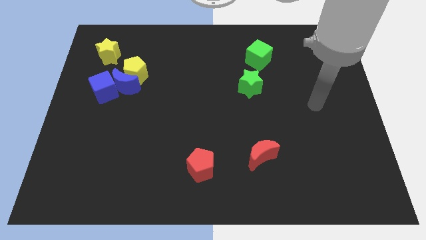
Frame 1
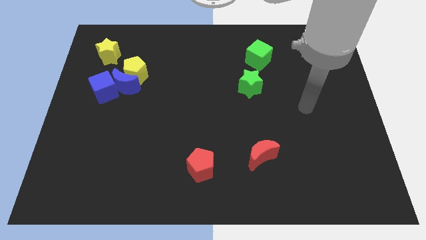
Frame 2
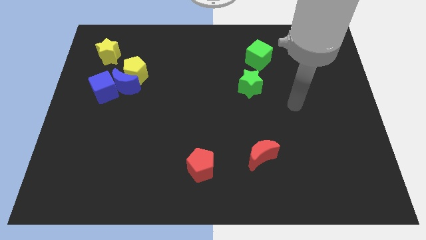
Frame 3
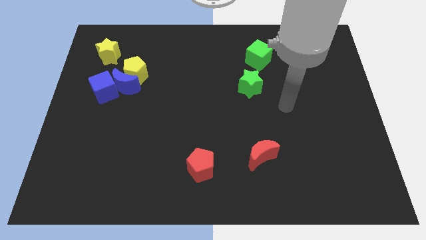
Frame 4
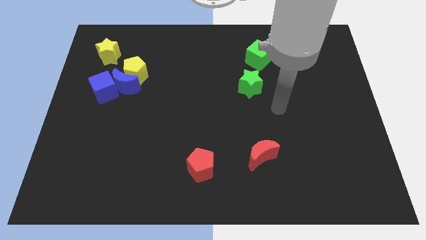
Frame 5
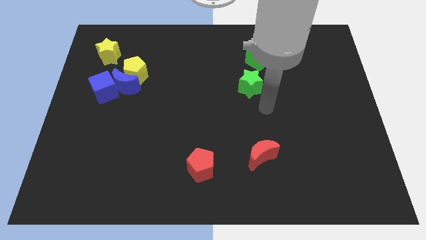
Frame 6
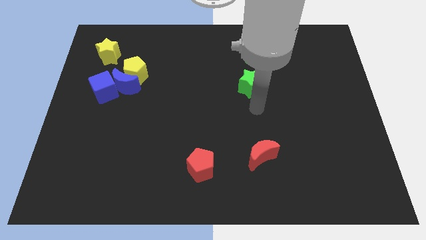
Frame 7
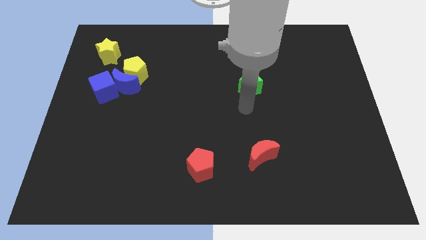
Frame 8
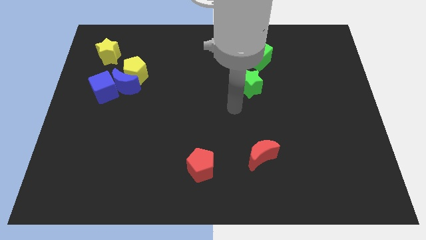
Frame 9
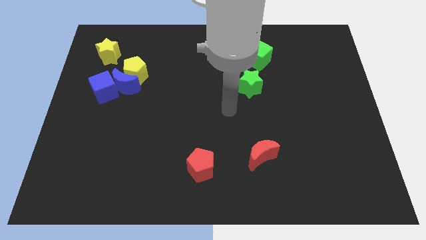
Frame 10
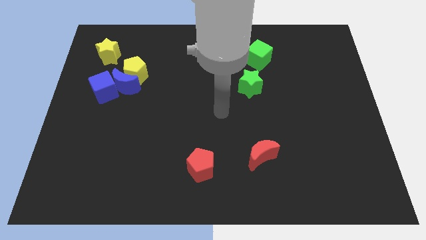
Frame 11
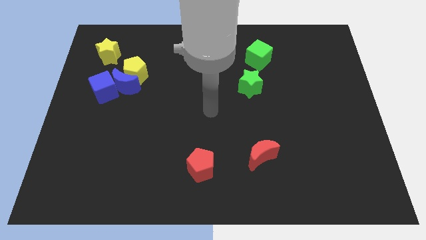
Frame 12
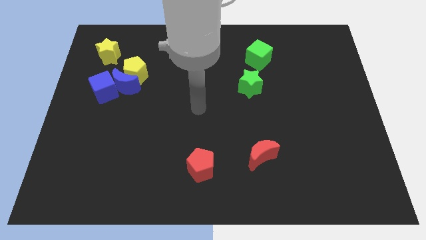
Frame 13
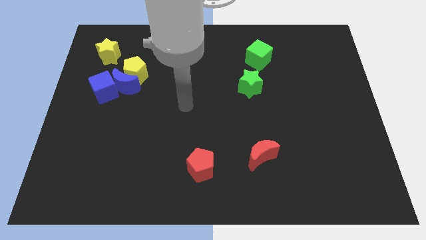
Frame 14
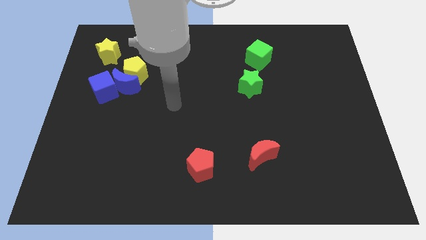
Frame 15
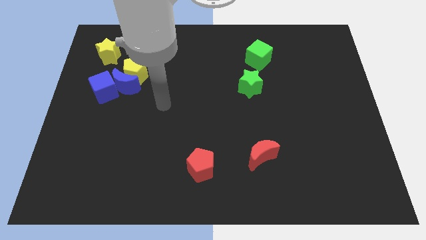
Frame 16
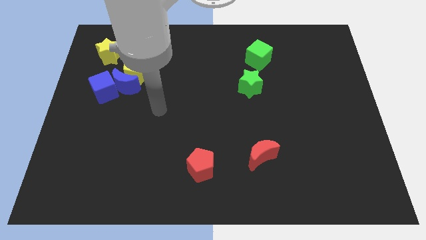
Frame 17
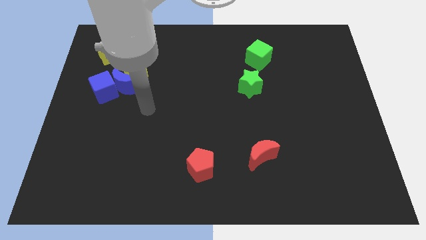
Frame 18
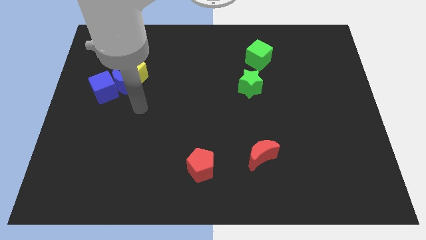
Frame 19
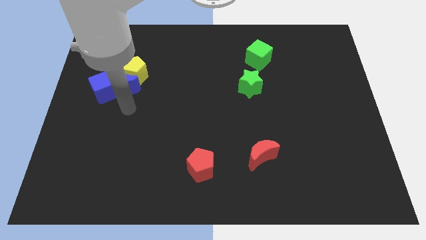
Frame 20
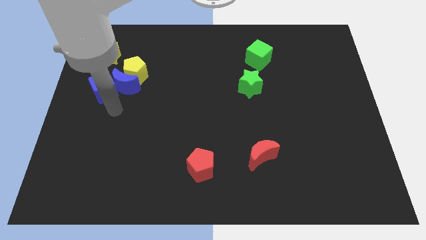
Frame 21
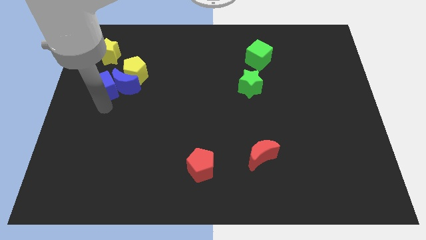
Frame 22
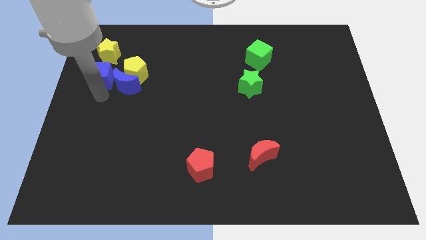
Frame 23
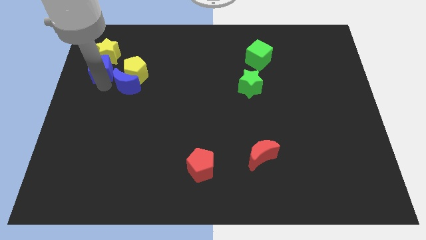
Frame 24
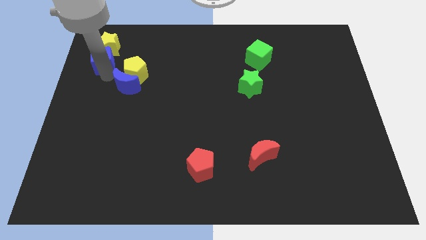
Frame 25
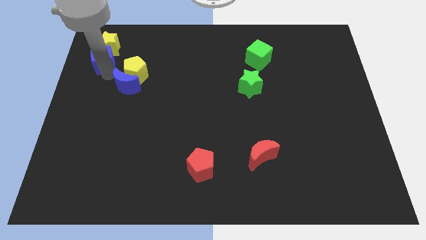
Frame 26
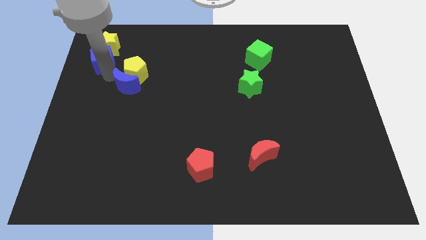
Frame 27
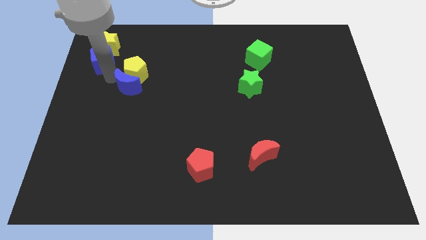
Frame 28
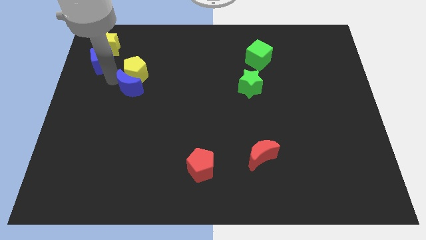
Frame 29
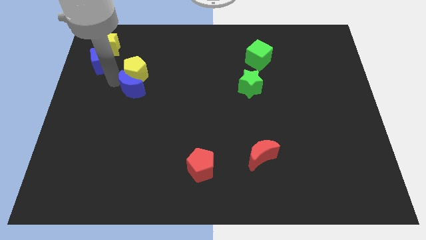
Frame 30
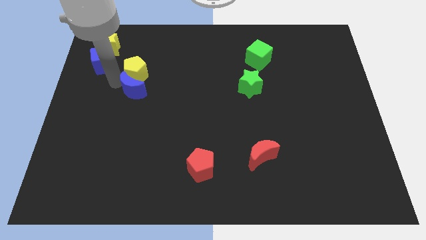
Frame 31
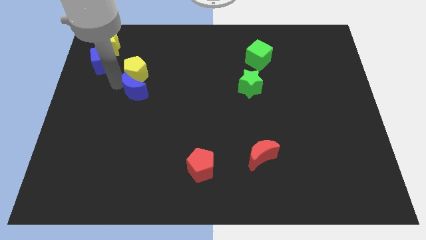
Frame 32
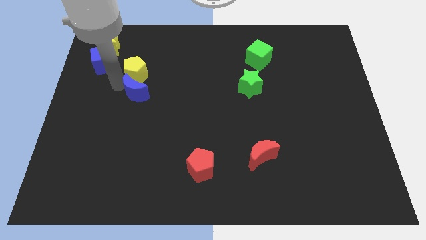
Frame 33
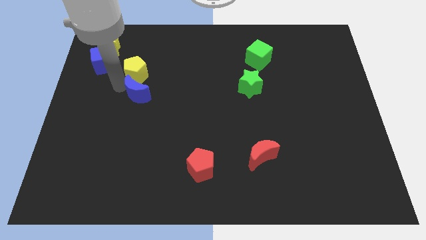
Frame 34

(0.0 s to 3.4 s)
separate the blue moon from the yellow pentagon and blue cube

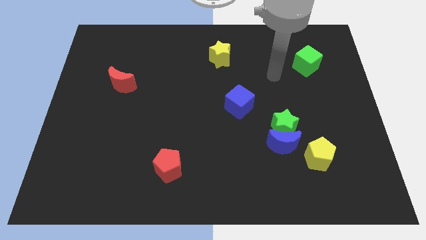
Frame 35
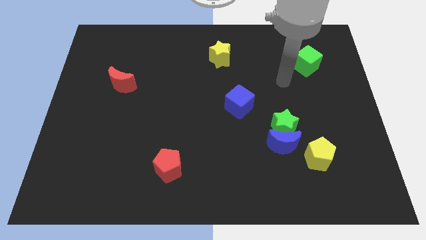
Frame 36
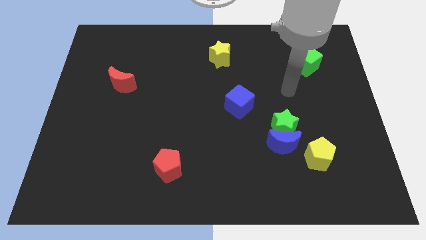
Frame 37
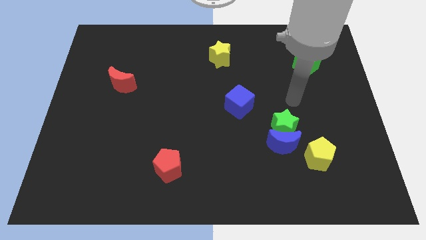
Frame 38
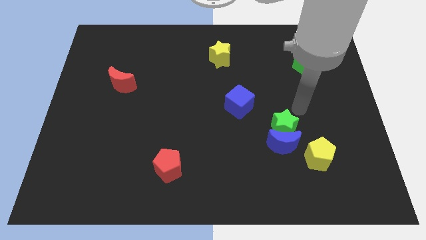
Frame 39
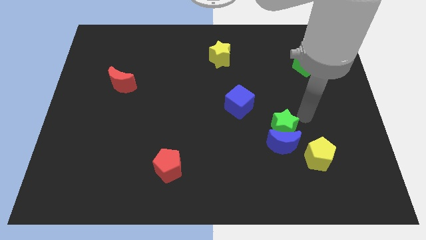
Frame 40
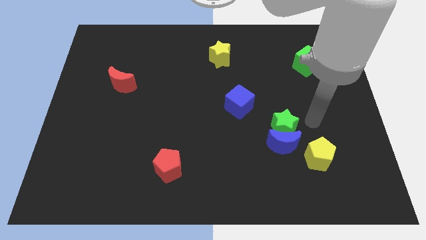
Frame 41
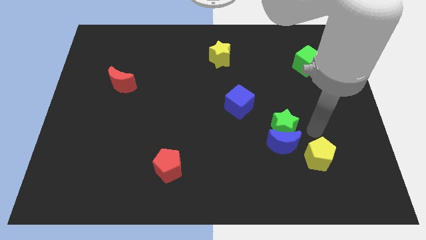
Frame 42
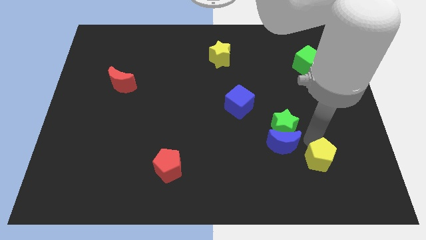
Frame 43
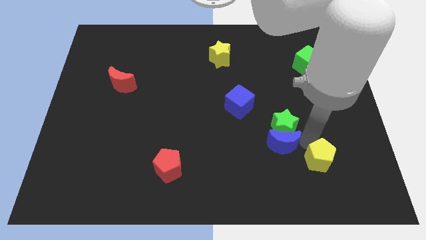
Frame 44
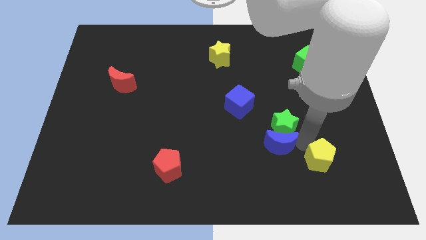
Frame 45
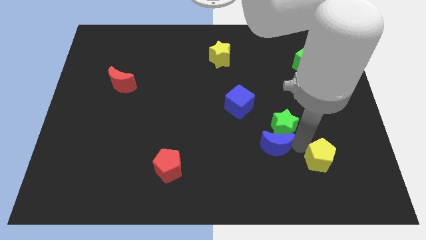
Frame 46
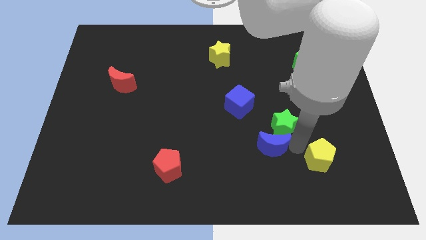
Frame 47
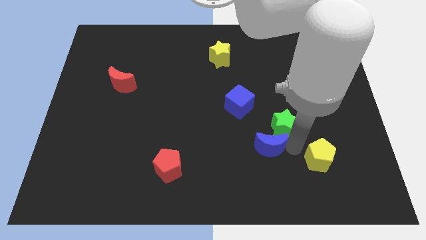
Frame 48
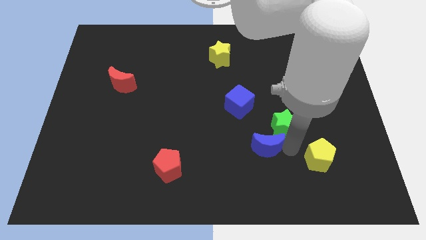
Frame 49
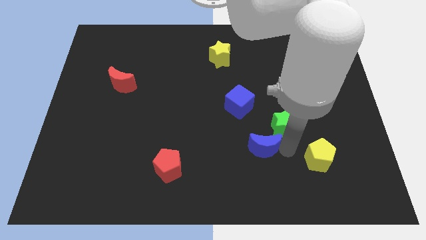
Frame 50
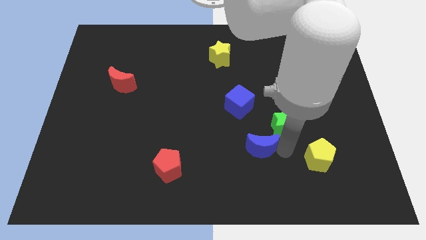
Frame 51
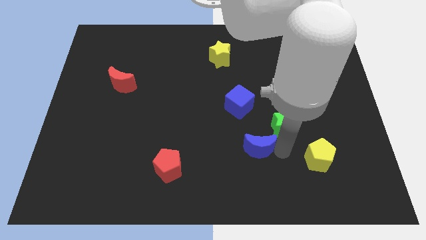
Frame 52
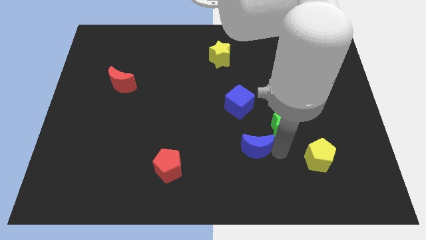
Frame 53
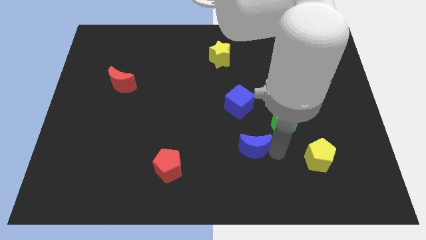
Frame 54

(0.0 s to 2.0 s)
separate the blue moon from the green star and yellow pentagon

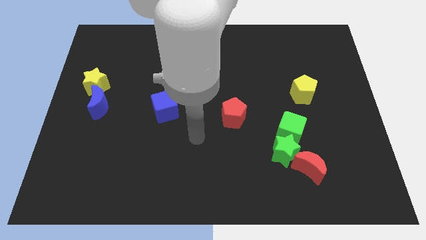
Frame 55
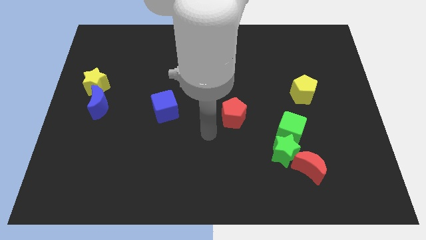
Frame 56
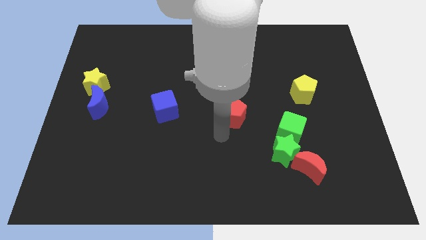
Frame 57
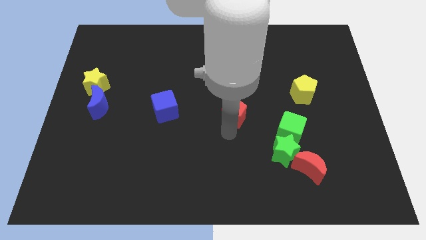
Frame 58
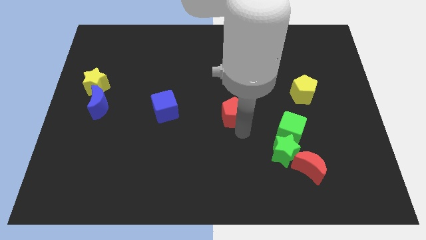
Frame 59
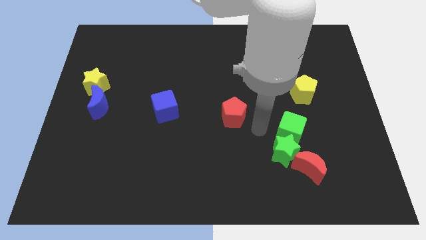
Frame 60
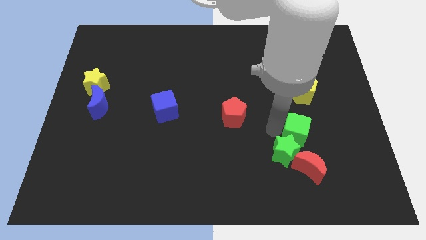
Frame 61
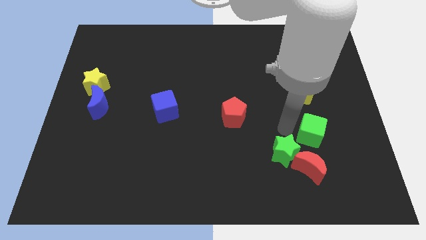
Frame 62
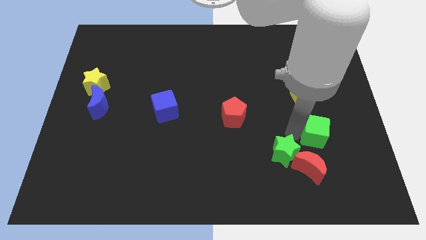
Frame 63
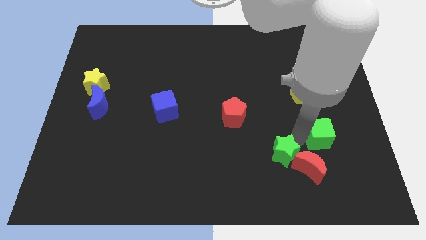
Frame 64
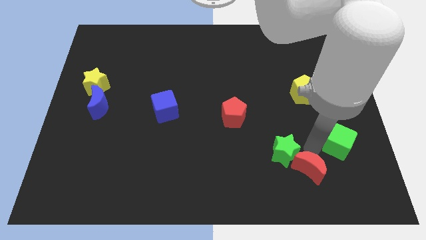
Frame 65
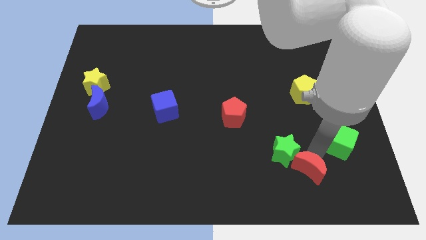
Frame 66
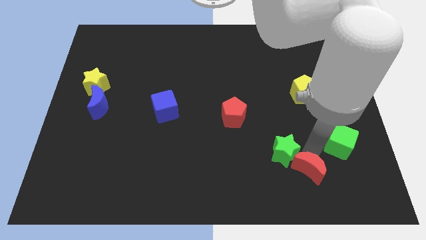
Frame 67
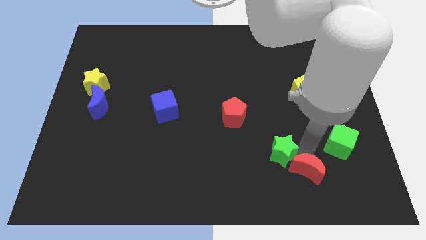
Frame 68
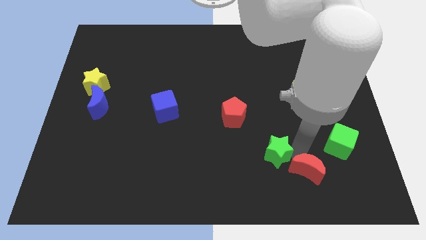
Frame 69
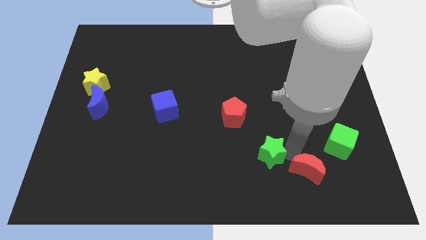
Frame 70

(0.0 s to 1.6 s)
pull the green star apart from the red moon and green cube

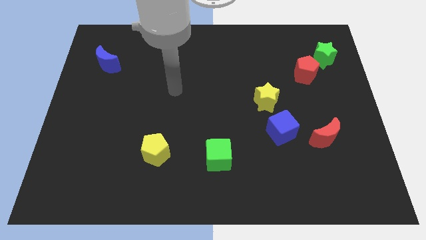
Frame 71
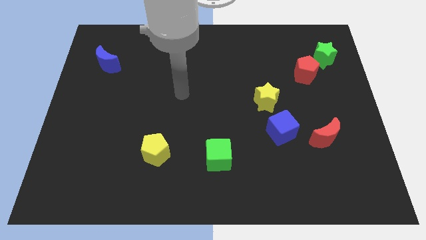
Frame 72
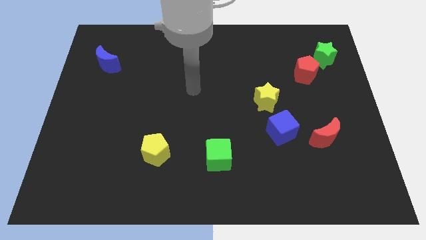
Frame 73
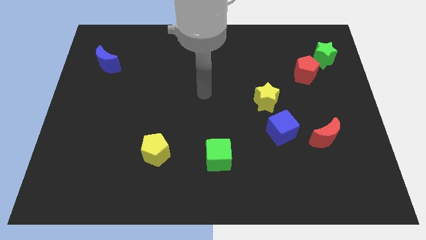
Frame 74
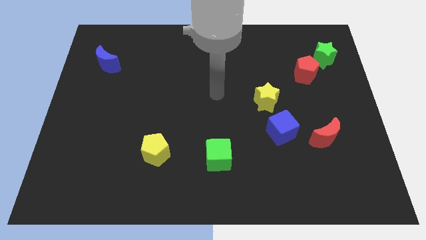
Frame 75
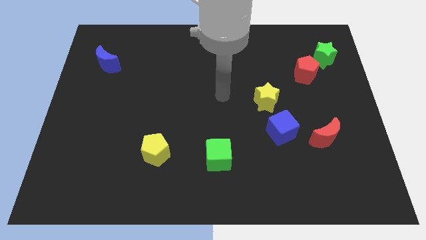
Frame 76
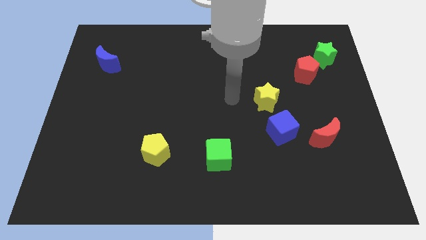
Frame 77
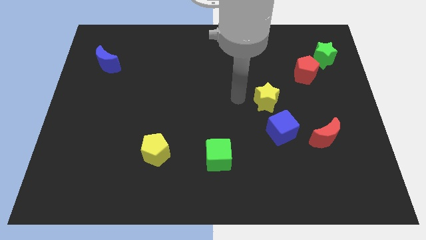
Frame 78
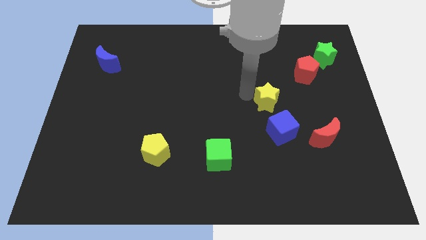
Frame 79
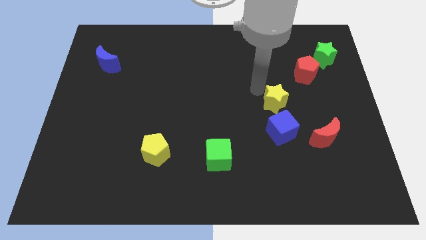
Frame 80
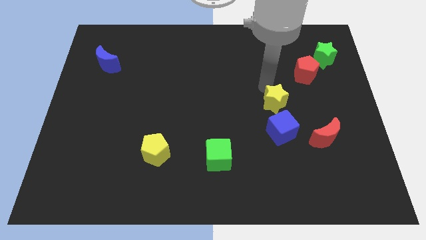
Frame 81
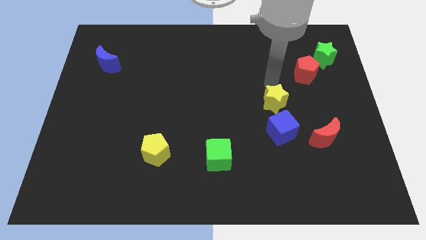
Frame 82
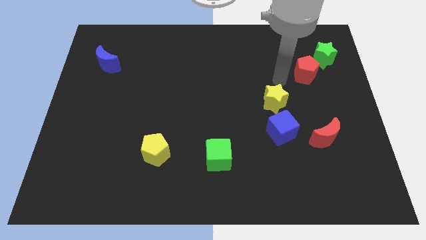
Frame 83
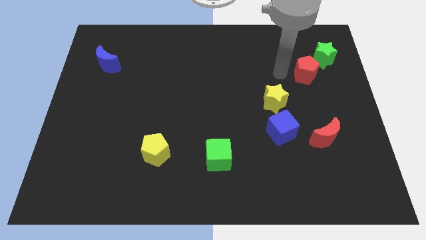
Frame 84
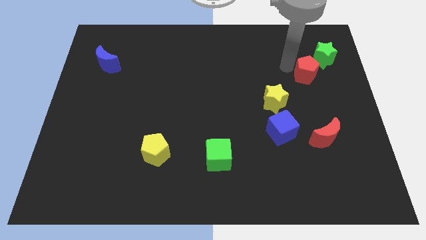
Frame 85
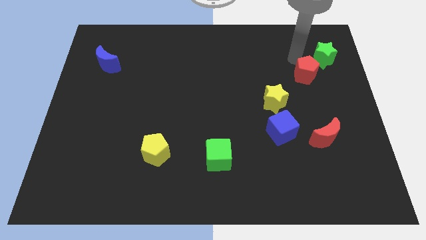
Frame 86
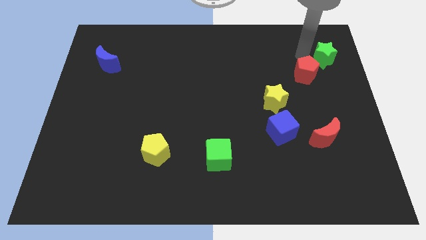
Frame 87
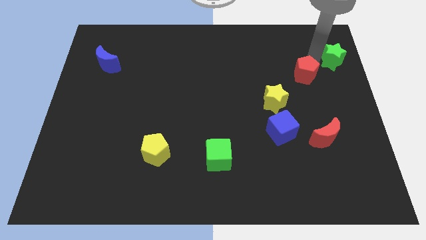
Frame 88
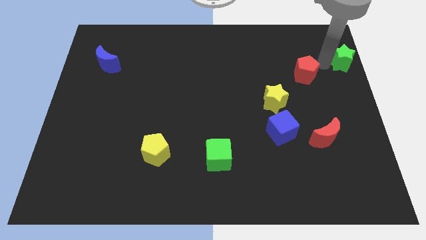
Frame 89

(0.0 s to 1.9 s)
pull the red pentagon apart from the green star

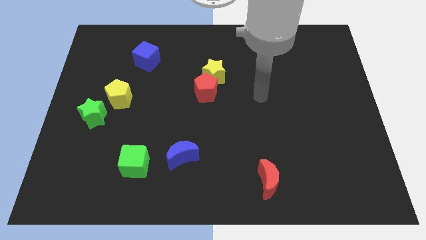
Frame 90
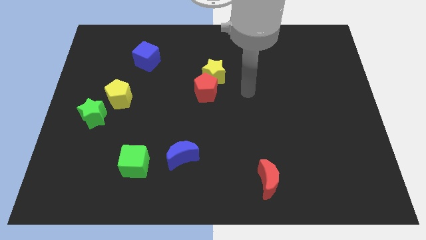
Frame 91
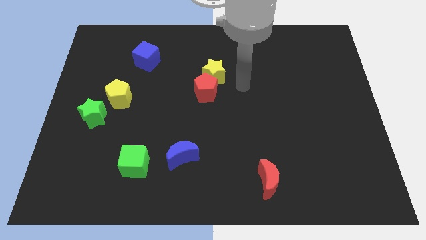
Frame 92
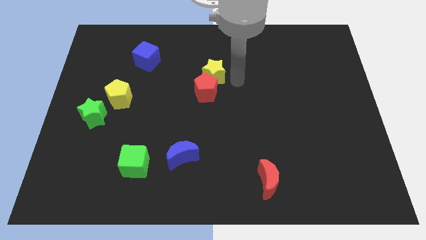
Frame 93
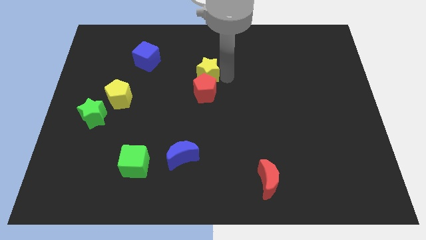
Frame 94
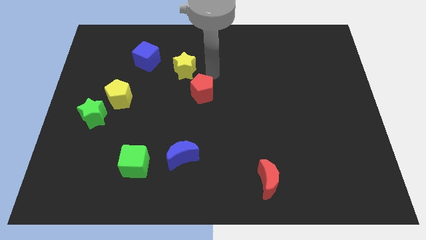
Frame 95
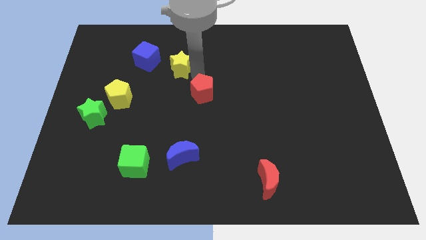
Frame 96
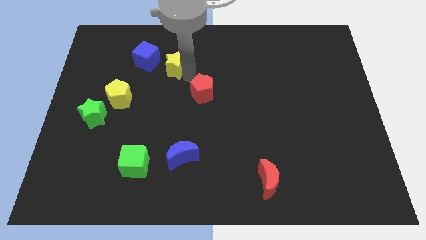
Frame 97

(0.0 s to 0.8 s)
move the red pentagon away from the yellow star
